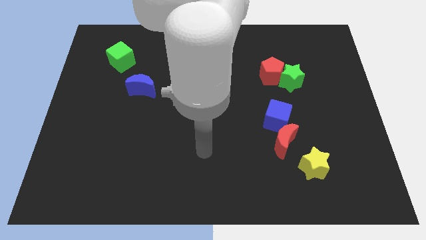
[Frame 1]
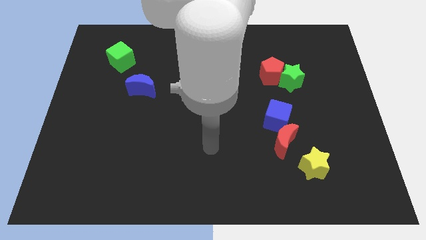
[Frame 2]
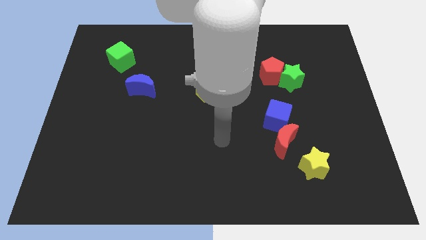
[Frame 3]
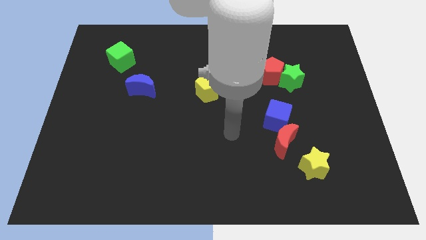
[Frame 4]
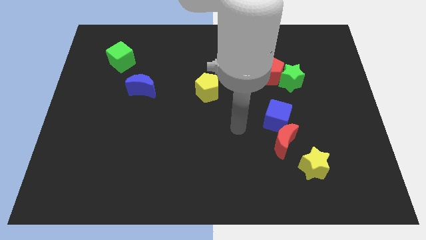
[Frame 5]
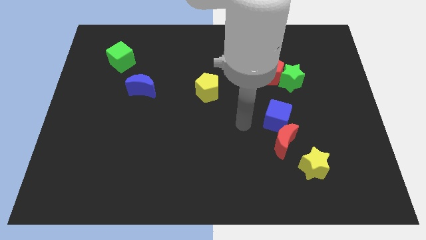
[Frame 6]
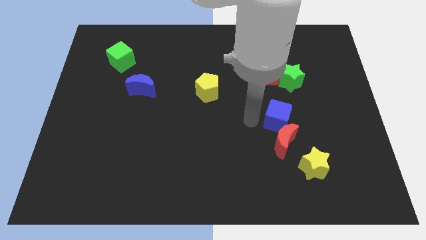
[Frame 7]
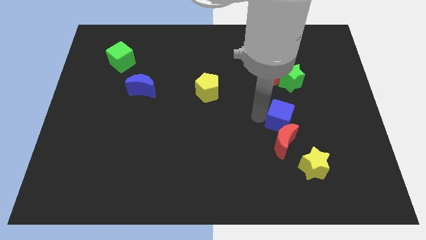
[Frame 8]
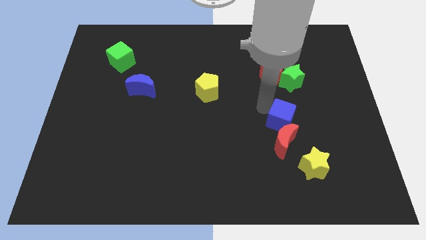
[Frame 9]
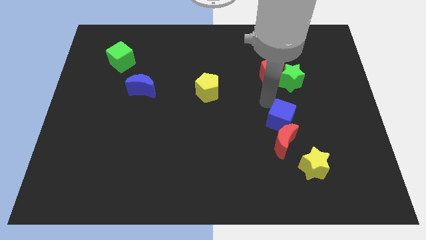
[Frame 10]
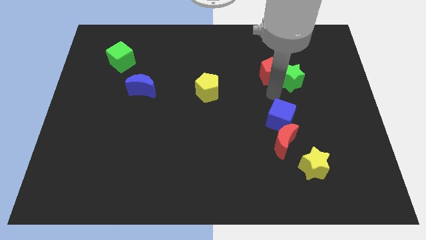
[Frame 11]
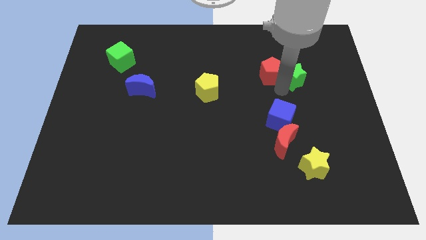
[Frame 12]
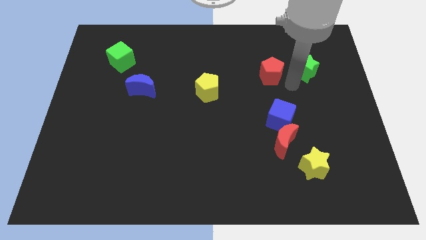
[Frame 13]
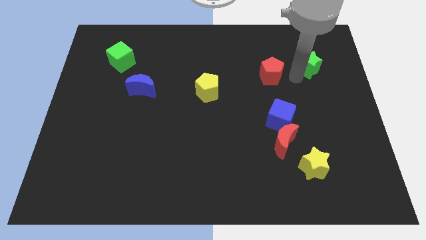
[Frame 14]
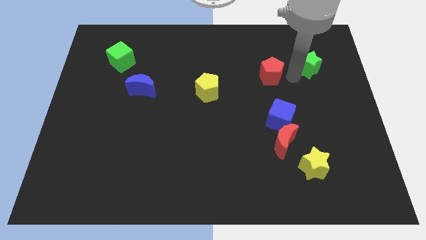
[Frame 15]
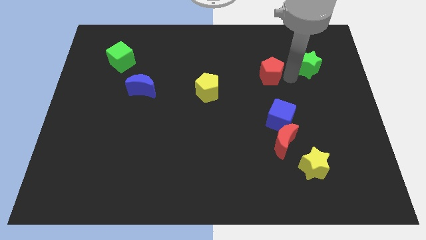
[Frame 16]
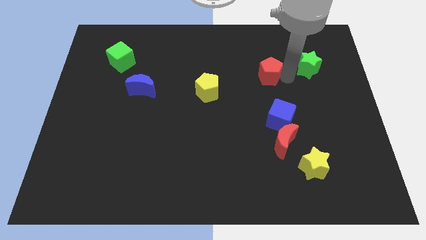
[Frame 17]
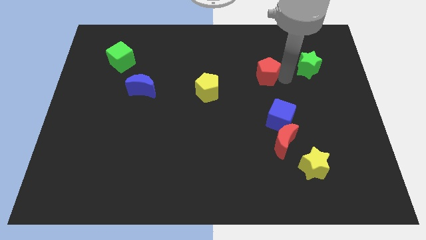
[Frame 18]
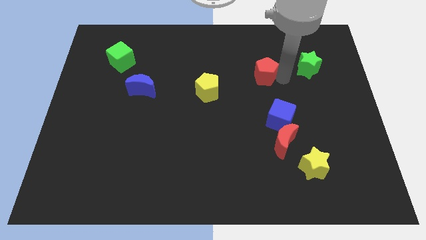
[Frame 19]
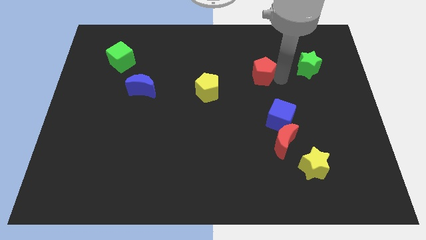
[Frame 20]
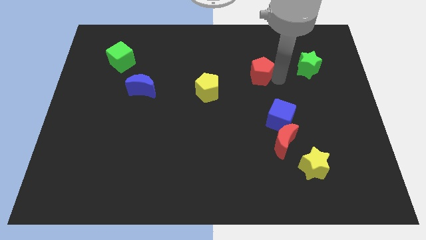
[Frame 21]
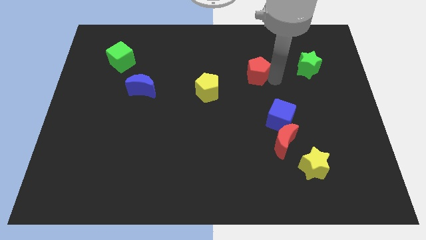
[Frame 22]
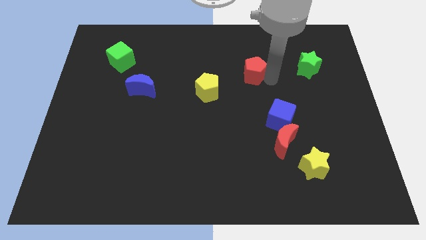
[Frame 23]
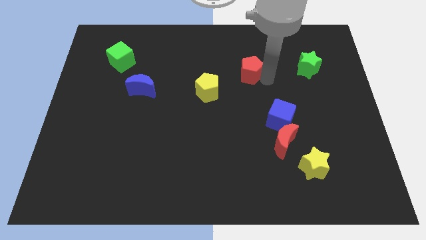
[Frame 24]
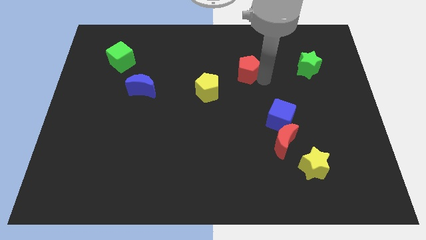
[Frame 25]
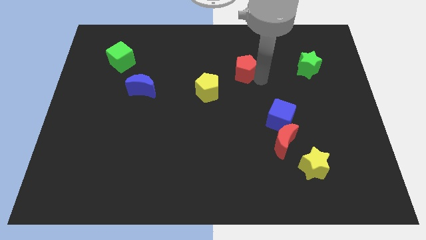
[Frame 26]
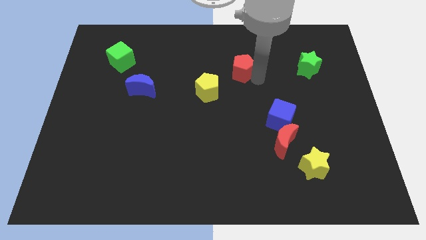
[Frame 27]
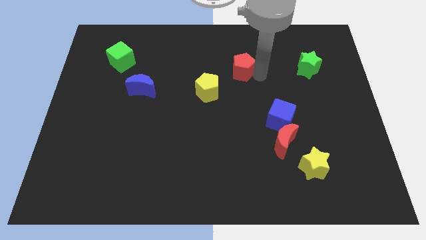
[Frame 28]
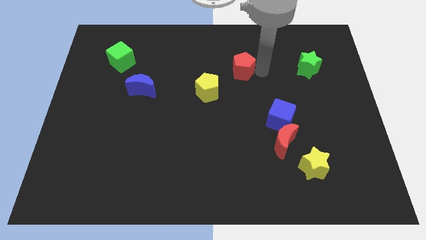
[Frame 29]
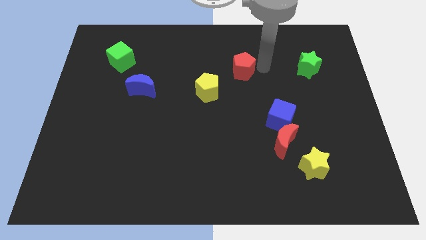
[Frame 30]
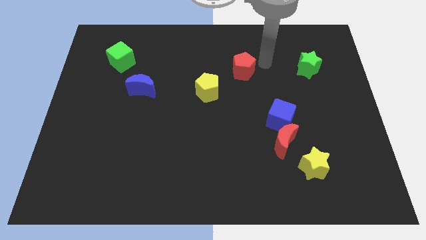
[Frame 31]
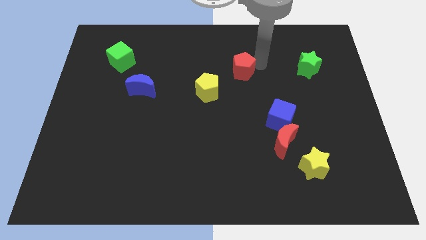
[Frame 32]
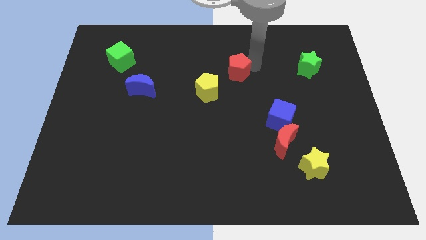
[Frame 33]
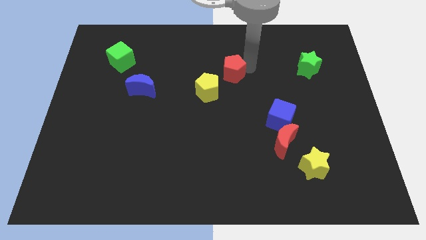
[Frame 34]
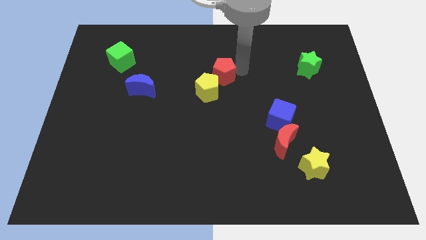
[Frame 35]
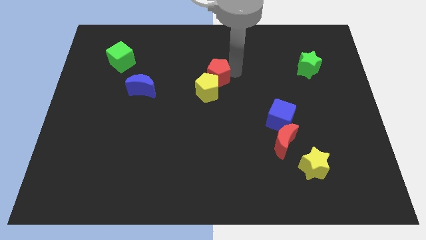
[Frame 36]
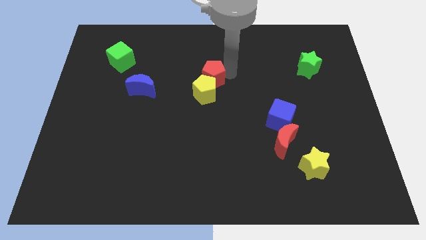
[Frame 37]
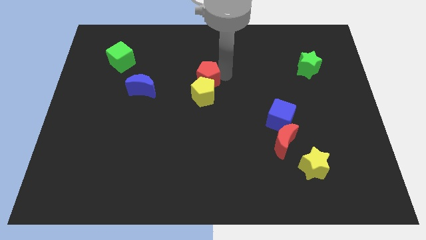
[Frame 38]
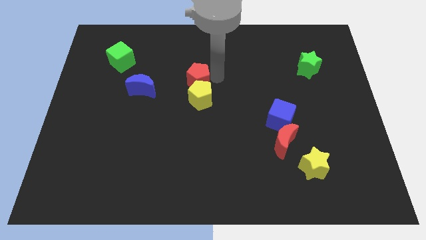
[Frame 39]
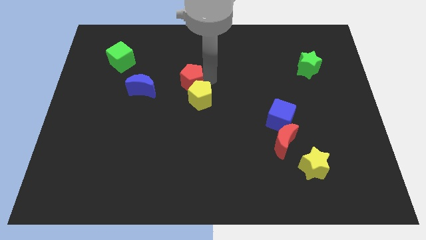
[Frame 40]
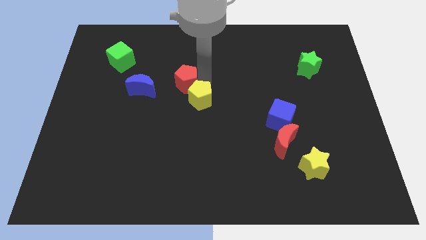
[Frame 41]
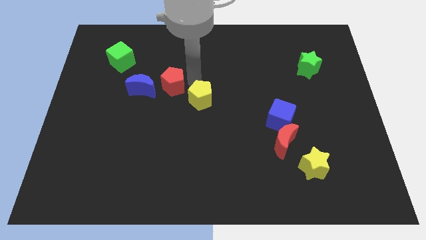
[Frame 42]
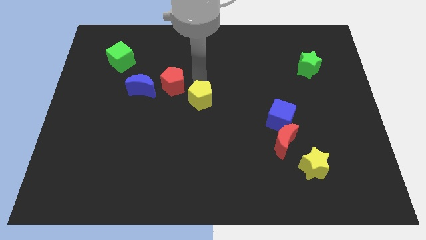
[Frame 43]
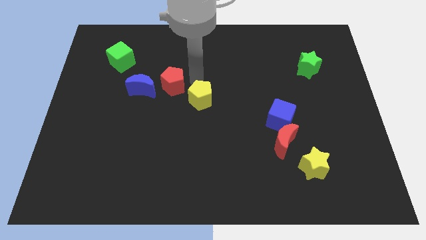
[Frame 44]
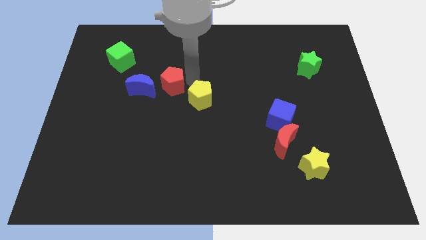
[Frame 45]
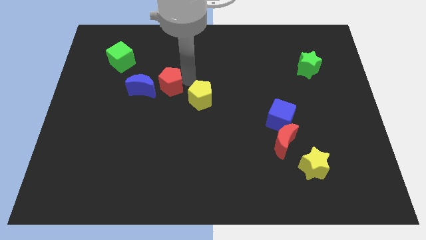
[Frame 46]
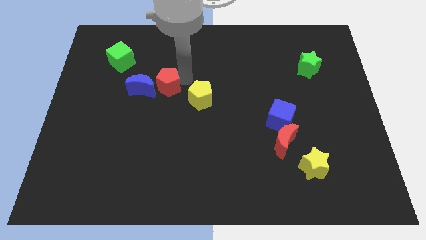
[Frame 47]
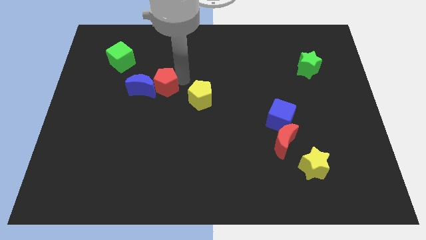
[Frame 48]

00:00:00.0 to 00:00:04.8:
slide the red pentagon close to the blue moon

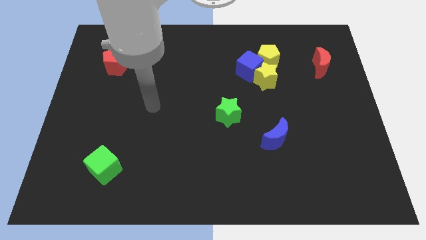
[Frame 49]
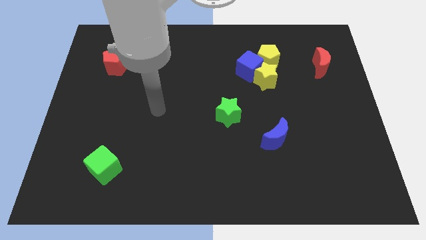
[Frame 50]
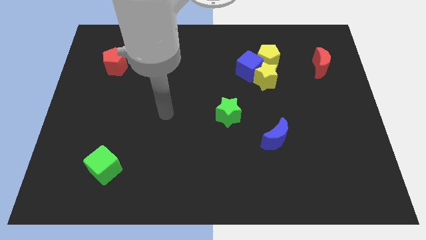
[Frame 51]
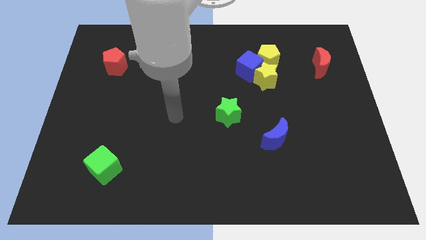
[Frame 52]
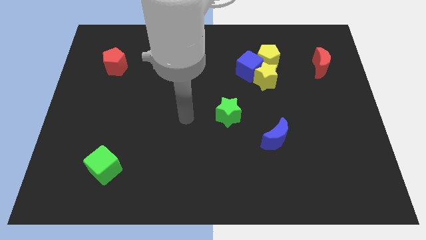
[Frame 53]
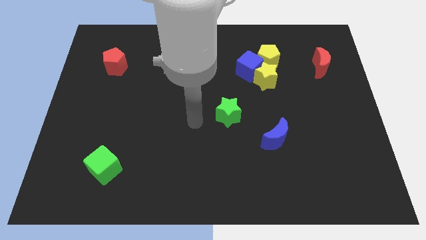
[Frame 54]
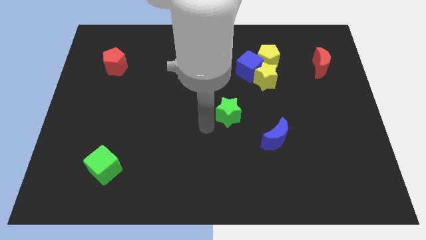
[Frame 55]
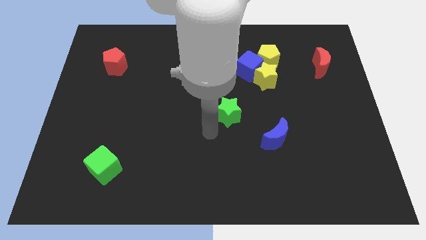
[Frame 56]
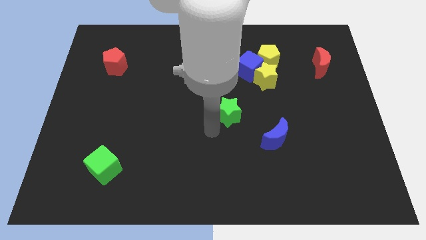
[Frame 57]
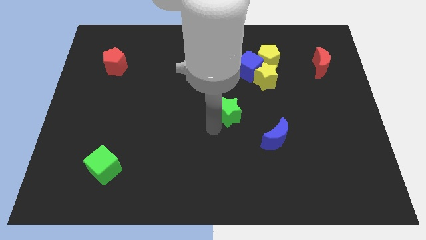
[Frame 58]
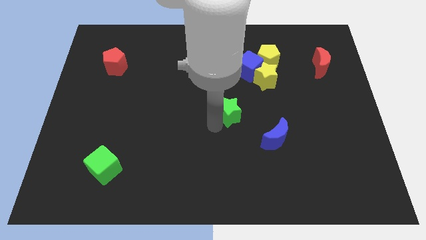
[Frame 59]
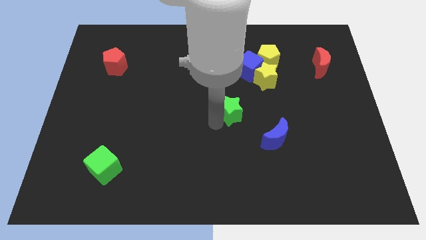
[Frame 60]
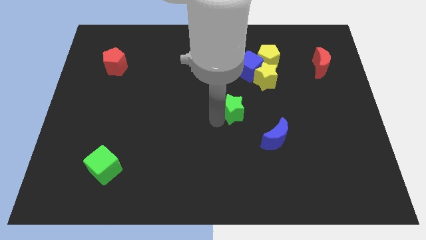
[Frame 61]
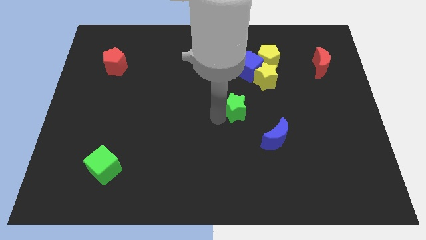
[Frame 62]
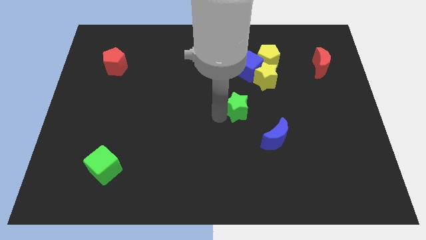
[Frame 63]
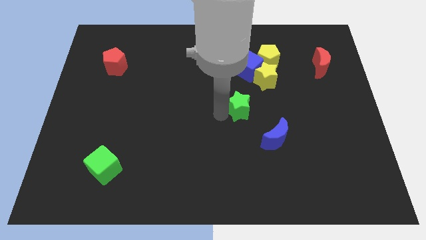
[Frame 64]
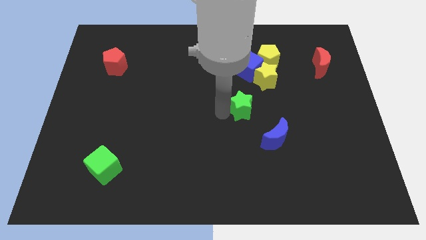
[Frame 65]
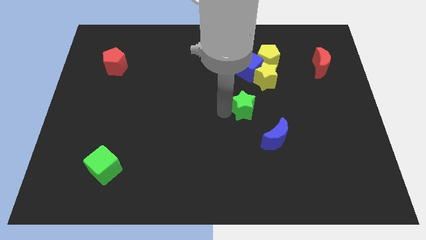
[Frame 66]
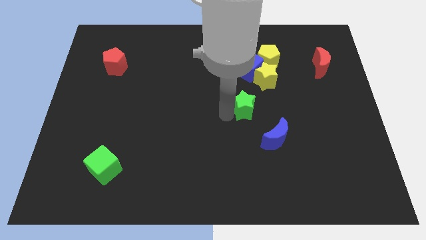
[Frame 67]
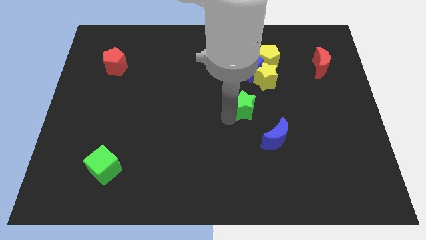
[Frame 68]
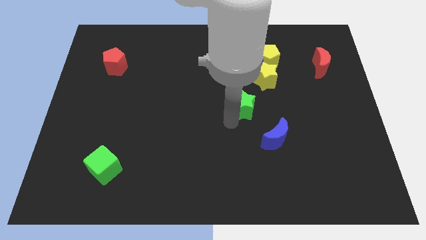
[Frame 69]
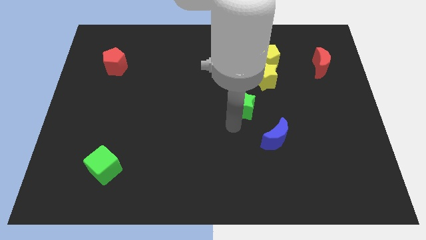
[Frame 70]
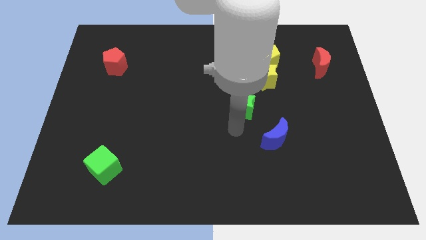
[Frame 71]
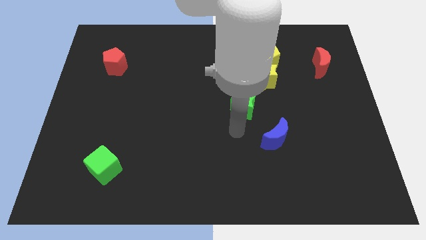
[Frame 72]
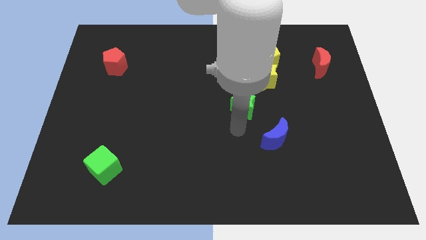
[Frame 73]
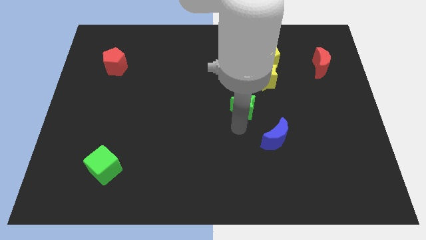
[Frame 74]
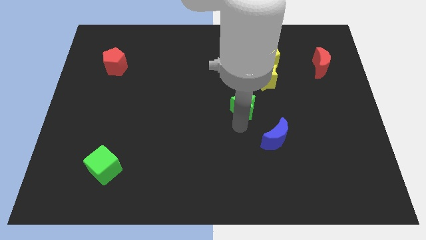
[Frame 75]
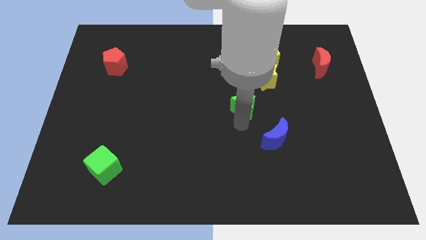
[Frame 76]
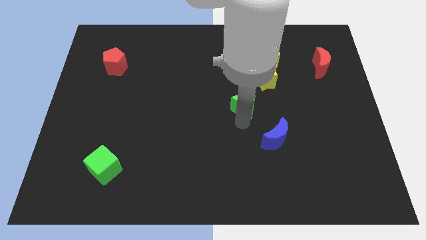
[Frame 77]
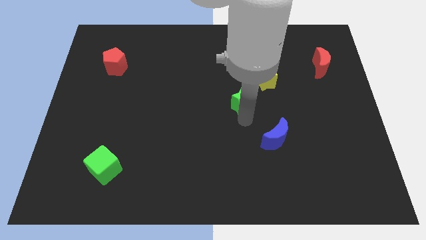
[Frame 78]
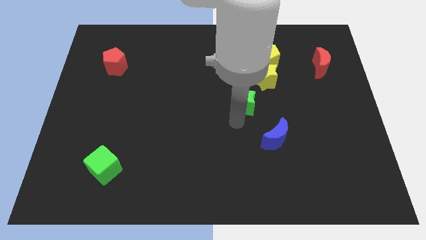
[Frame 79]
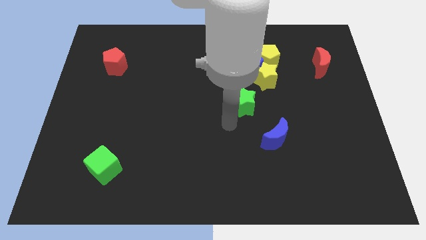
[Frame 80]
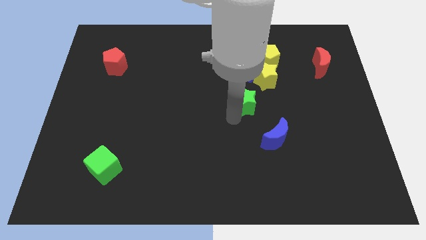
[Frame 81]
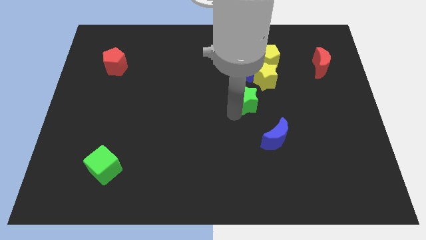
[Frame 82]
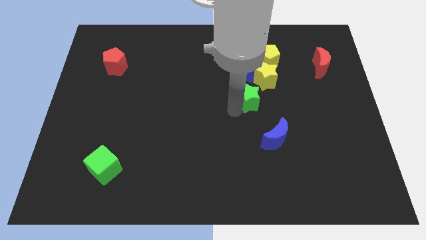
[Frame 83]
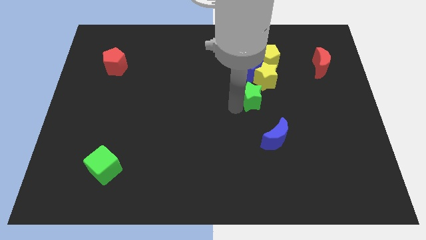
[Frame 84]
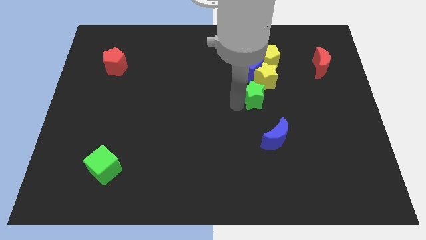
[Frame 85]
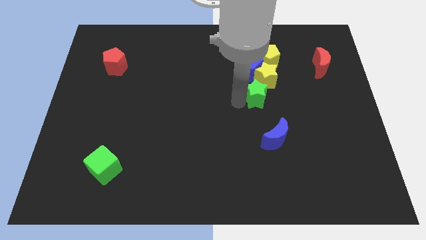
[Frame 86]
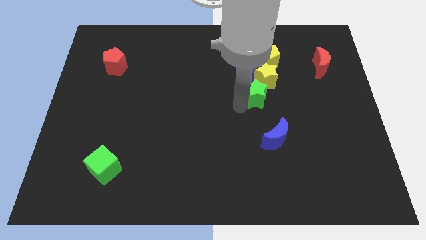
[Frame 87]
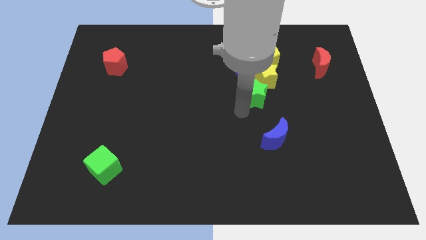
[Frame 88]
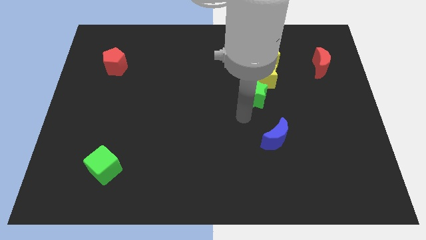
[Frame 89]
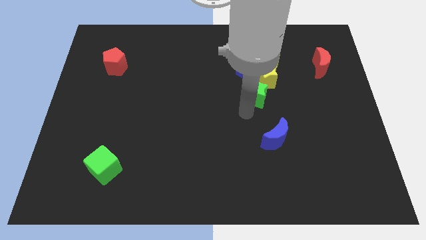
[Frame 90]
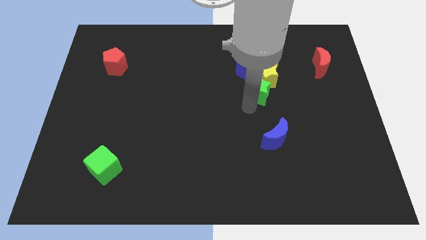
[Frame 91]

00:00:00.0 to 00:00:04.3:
slide the green star to the yellow star
